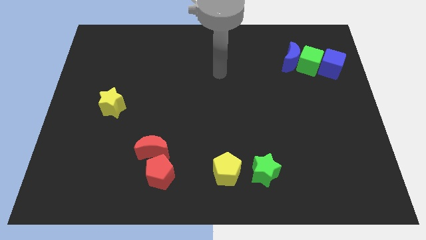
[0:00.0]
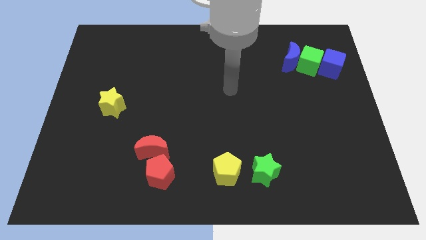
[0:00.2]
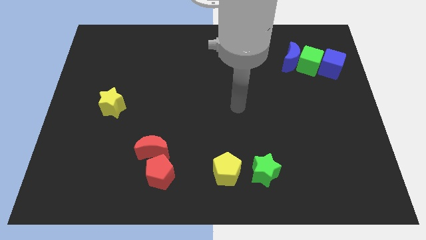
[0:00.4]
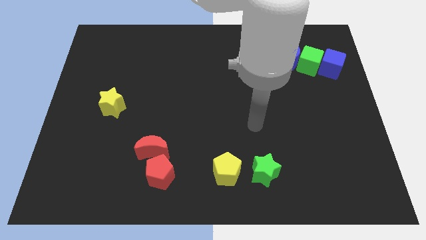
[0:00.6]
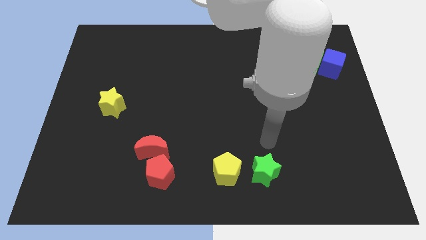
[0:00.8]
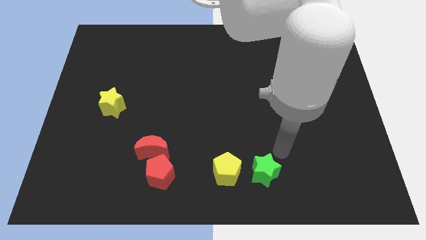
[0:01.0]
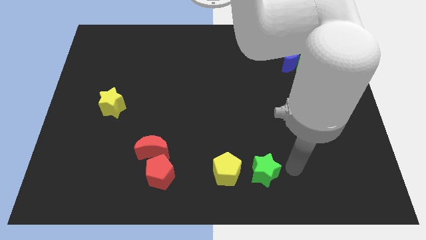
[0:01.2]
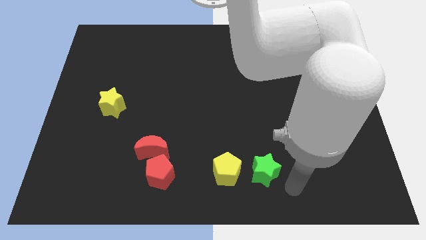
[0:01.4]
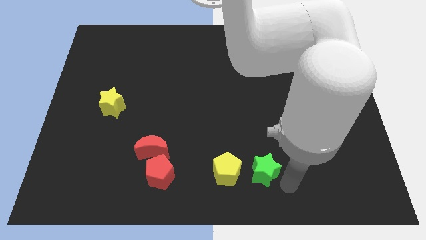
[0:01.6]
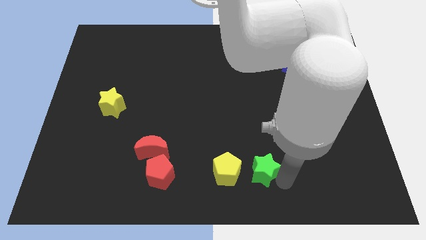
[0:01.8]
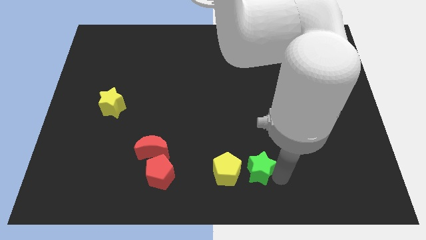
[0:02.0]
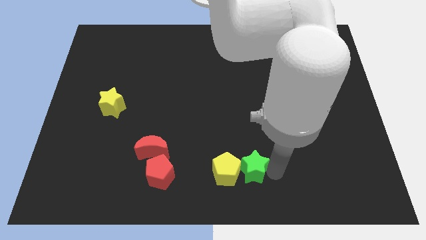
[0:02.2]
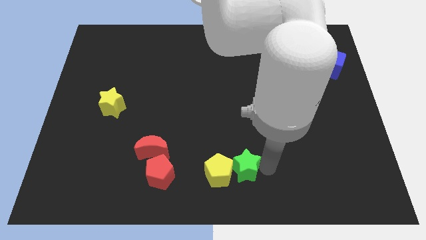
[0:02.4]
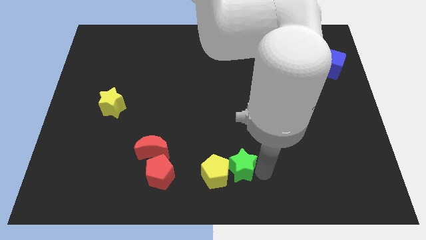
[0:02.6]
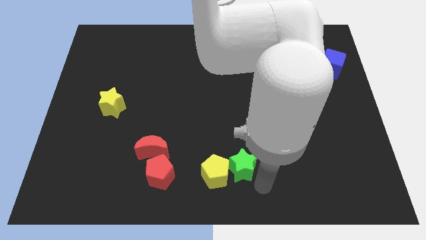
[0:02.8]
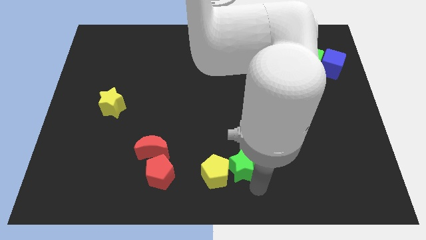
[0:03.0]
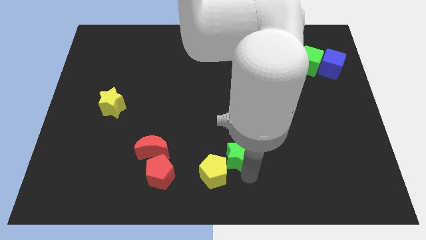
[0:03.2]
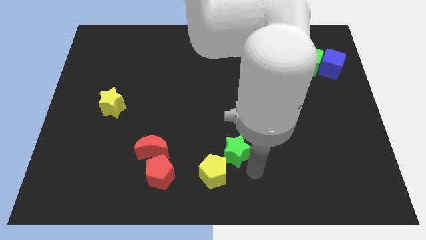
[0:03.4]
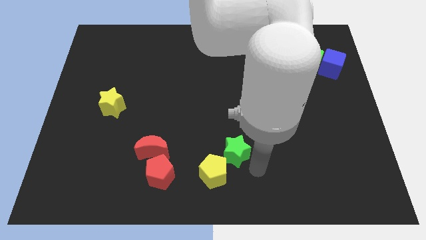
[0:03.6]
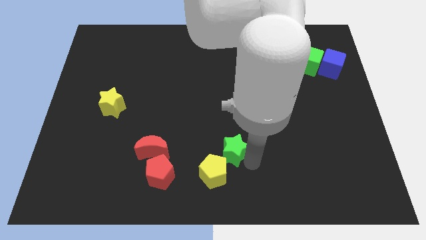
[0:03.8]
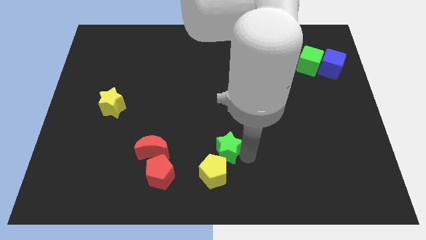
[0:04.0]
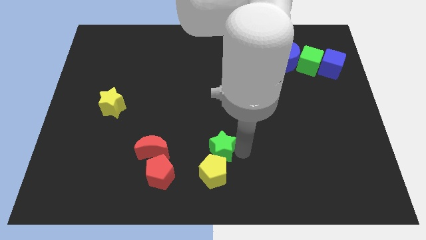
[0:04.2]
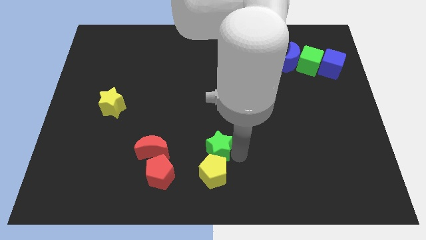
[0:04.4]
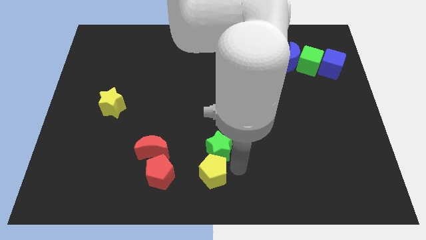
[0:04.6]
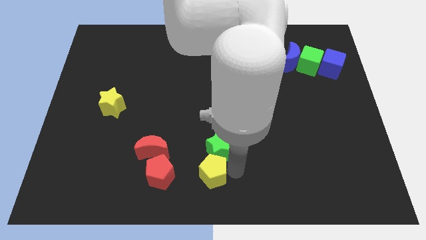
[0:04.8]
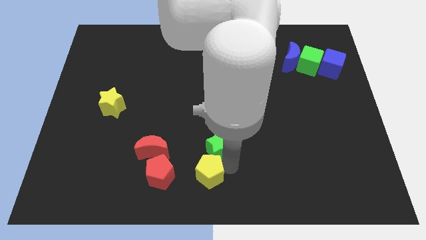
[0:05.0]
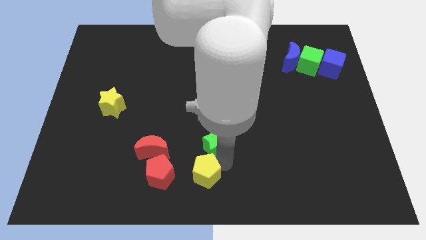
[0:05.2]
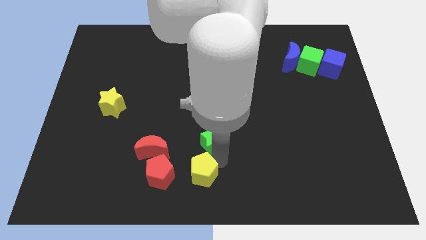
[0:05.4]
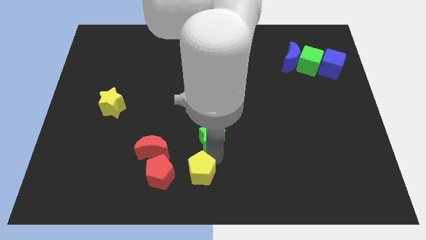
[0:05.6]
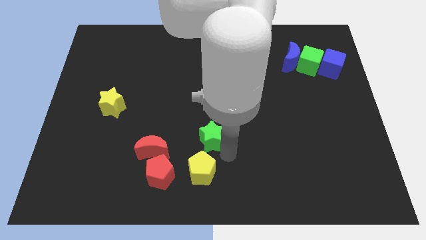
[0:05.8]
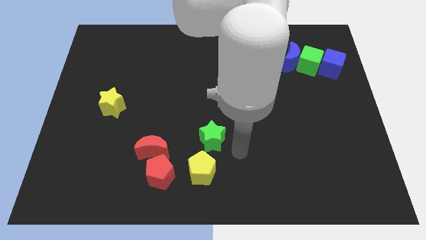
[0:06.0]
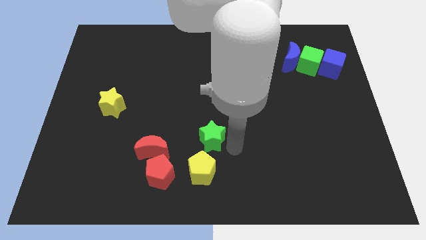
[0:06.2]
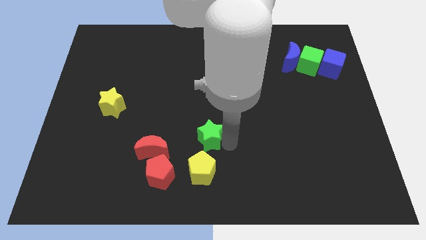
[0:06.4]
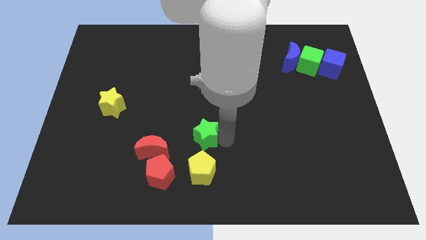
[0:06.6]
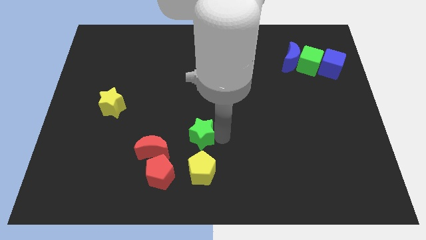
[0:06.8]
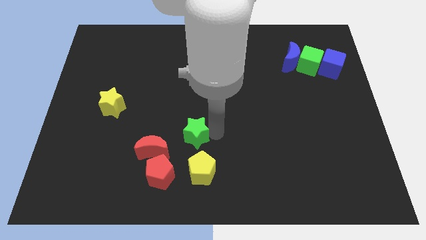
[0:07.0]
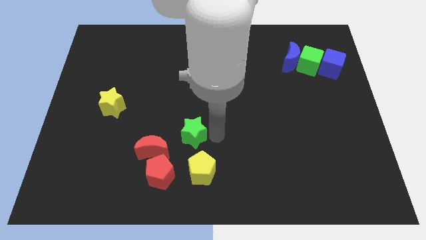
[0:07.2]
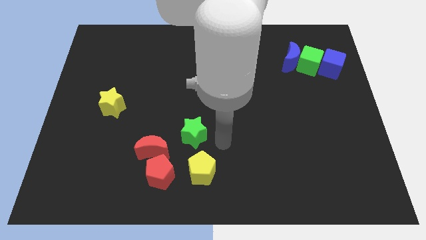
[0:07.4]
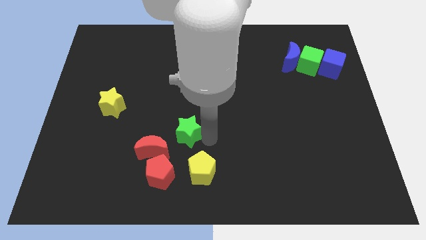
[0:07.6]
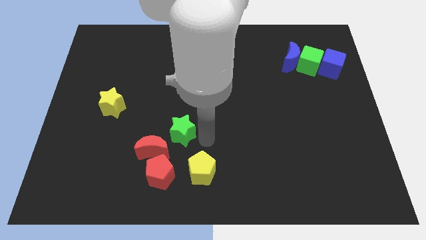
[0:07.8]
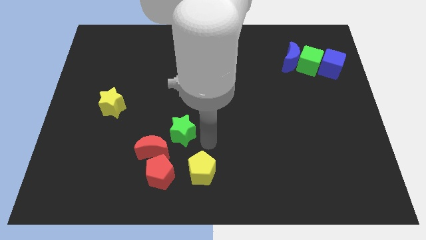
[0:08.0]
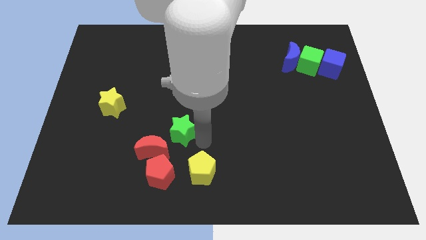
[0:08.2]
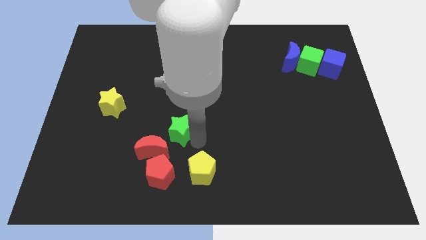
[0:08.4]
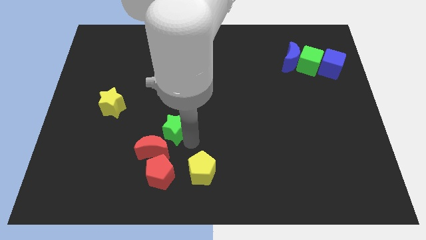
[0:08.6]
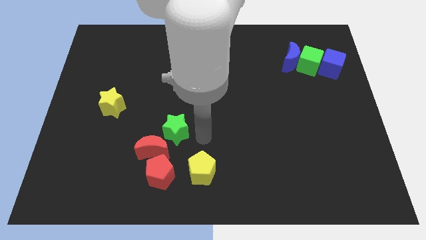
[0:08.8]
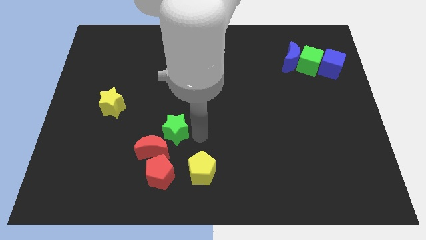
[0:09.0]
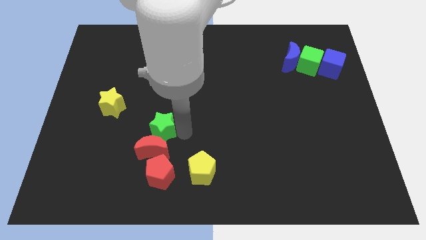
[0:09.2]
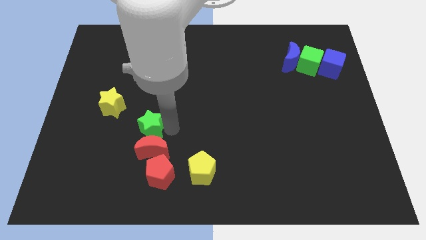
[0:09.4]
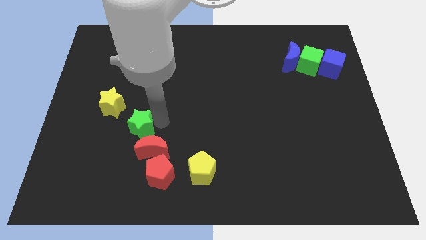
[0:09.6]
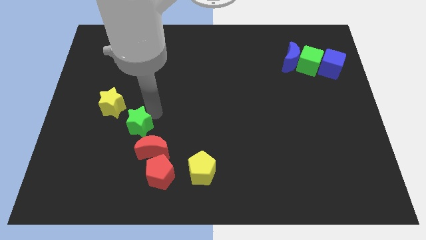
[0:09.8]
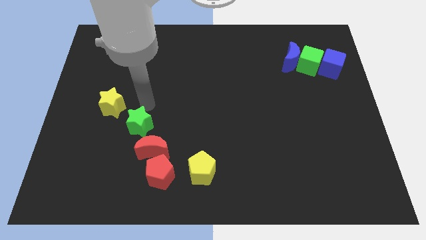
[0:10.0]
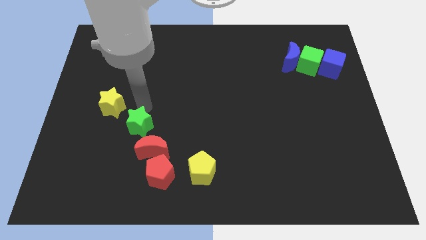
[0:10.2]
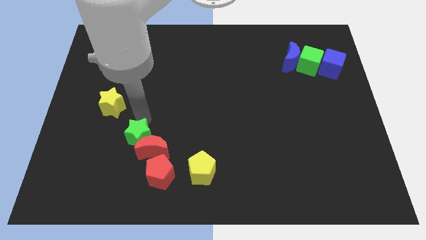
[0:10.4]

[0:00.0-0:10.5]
push the green star to the top left side of the red pentagon

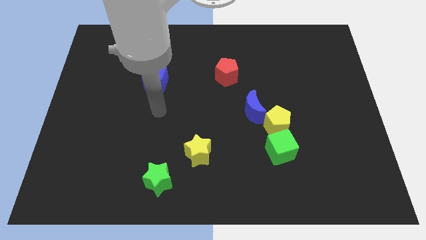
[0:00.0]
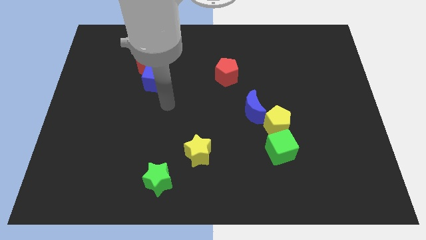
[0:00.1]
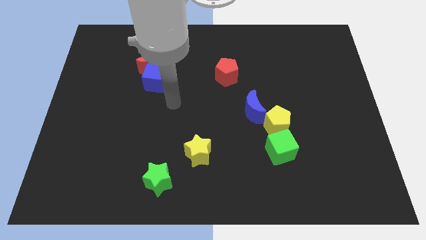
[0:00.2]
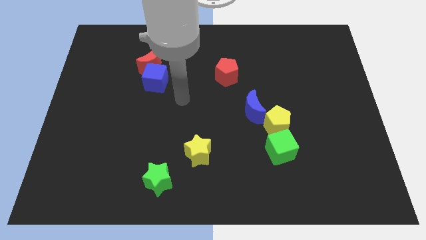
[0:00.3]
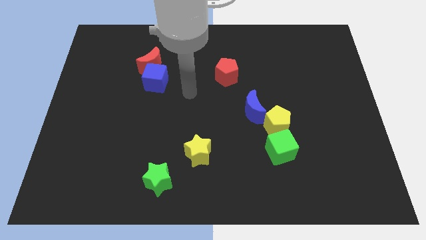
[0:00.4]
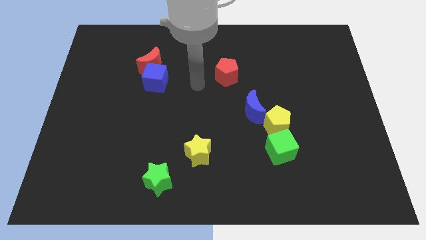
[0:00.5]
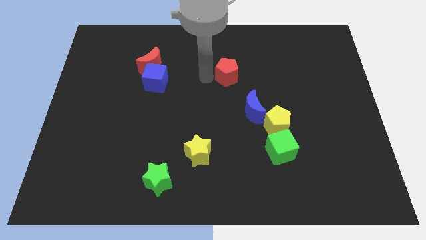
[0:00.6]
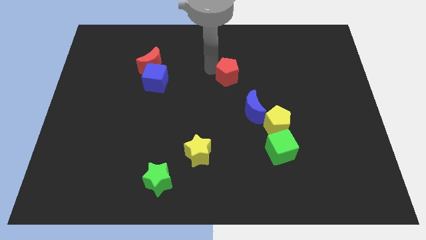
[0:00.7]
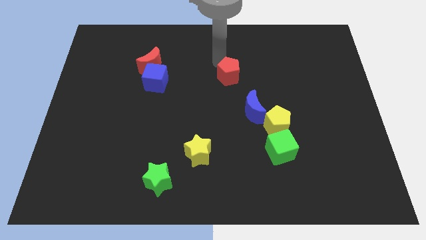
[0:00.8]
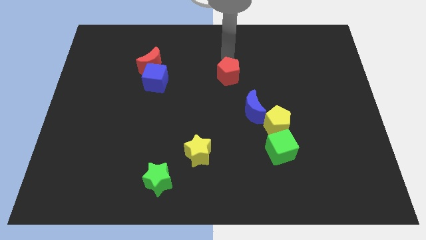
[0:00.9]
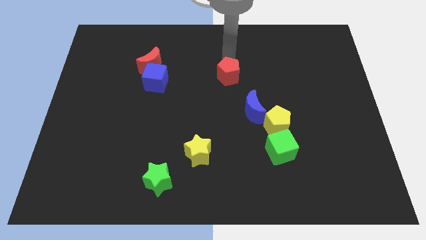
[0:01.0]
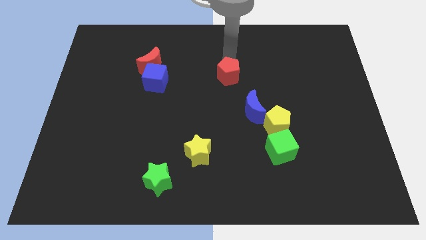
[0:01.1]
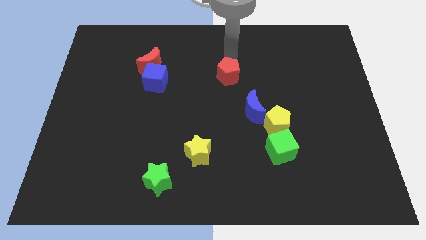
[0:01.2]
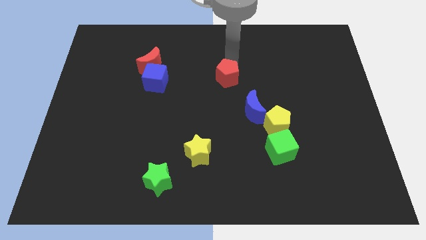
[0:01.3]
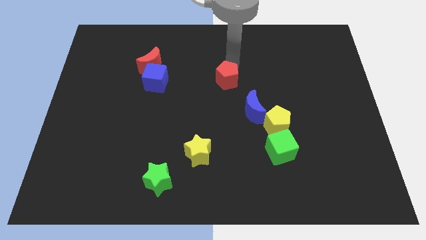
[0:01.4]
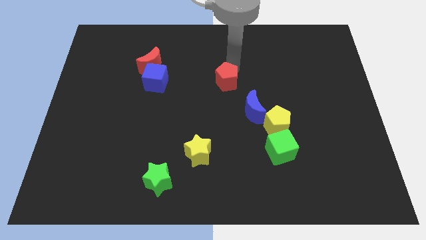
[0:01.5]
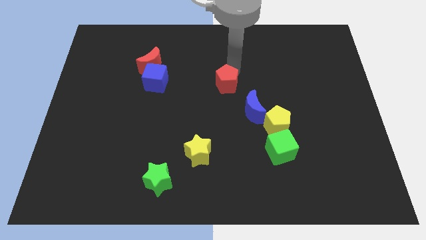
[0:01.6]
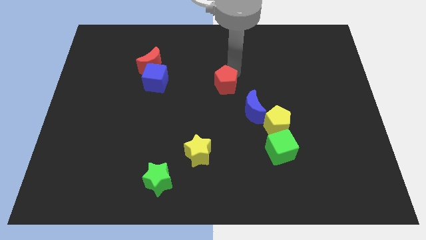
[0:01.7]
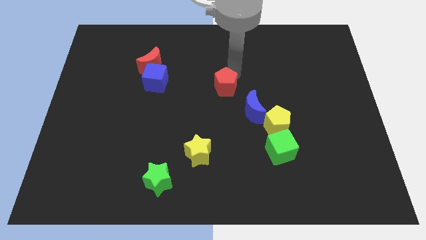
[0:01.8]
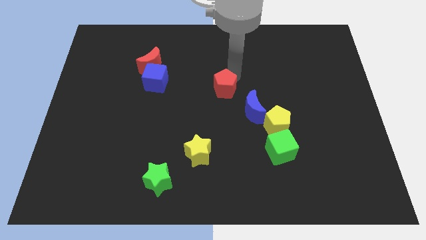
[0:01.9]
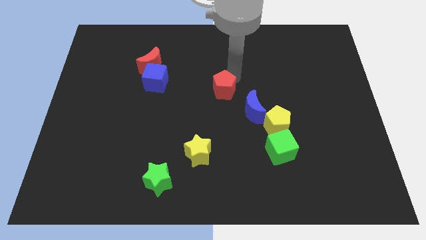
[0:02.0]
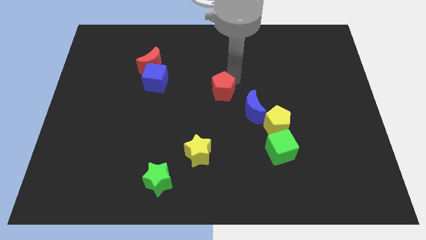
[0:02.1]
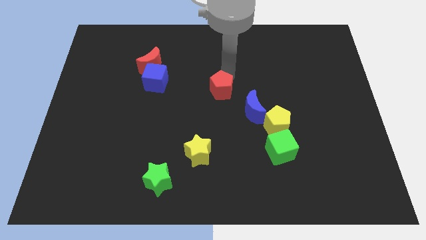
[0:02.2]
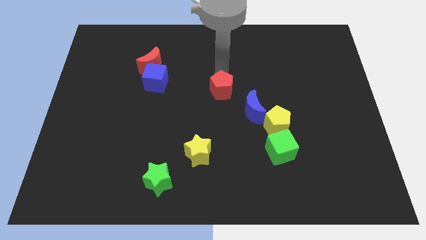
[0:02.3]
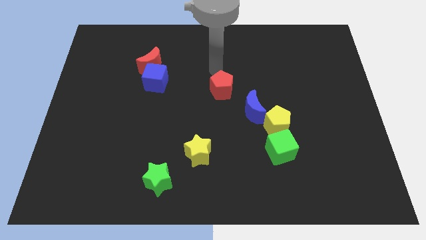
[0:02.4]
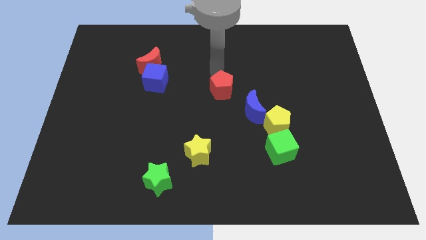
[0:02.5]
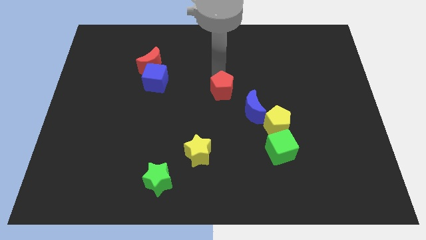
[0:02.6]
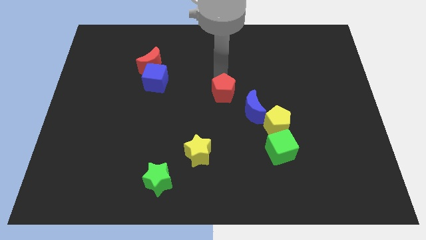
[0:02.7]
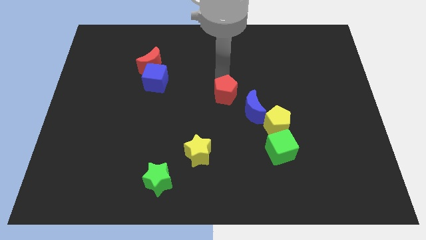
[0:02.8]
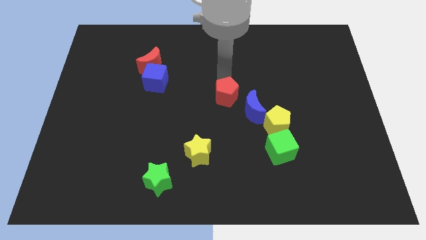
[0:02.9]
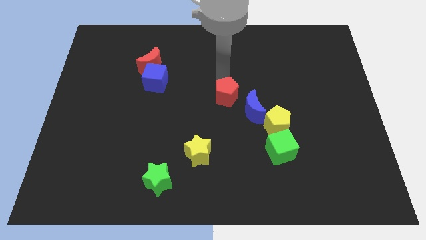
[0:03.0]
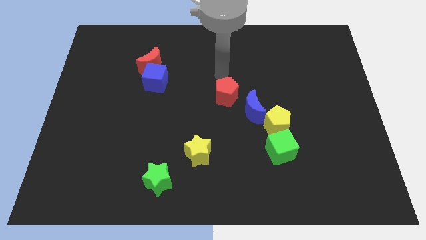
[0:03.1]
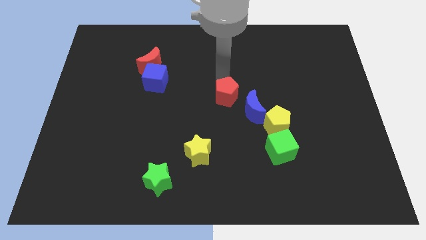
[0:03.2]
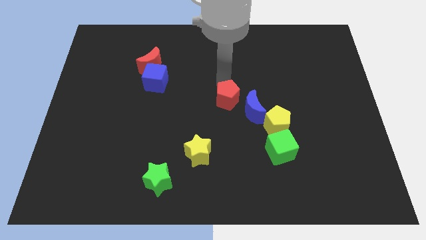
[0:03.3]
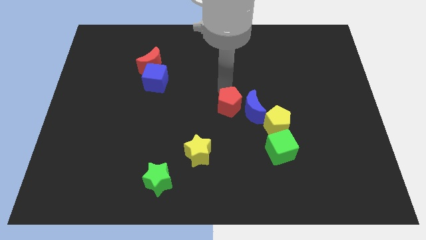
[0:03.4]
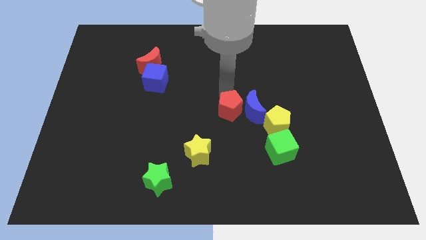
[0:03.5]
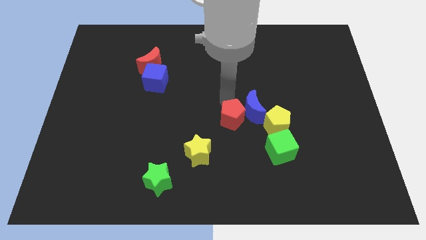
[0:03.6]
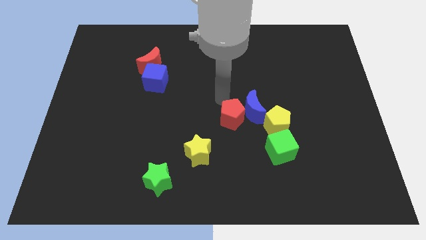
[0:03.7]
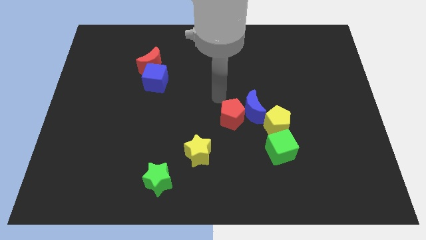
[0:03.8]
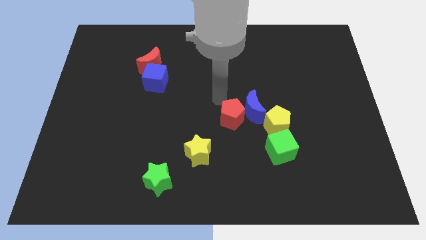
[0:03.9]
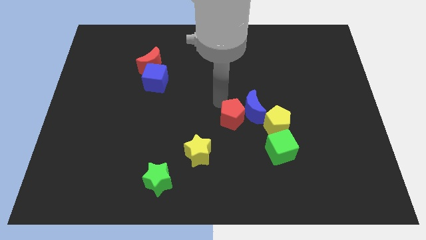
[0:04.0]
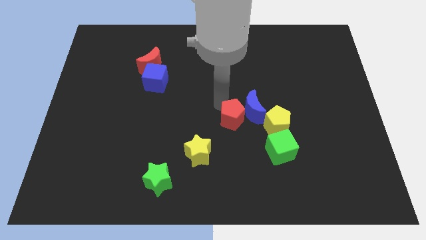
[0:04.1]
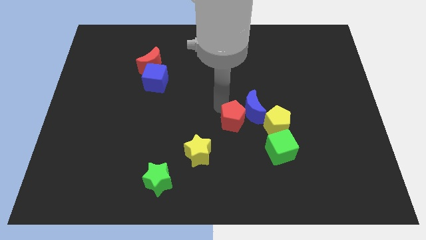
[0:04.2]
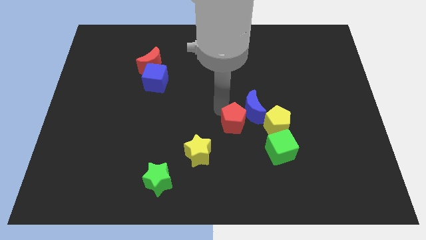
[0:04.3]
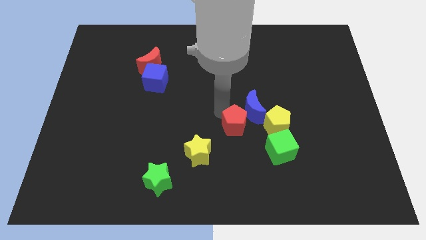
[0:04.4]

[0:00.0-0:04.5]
move the red pentagon to the bottom of the blue moon
